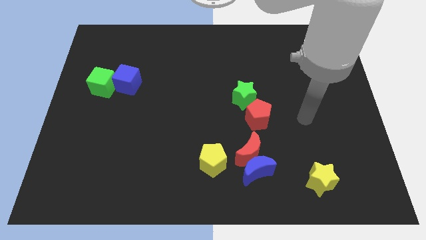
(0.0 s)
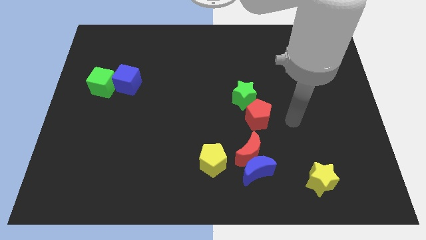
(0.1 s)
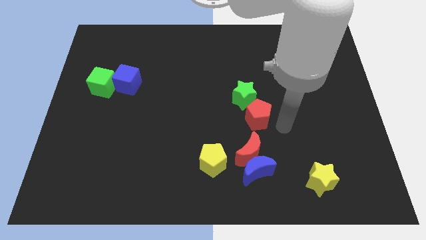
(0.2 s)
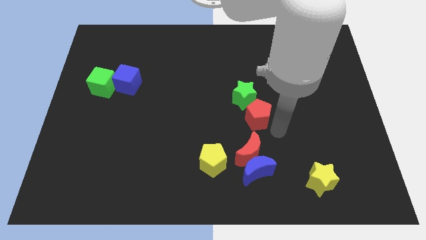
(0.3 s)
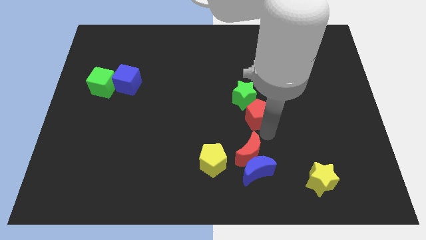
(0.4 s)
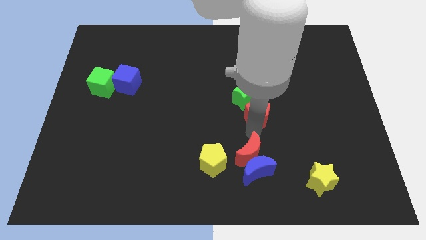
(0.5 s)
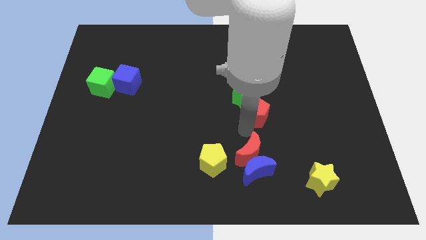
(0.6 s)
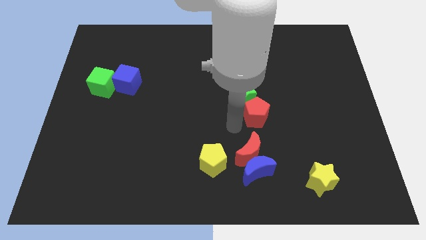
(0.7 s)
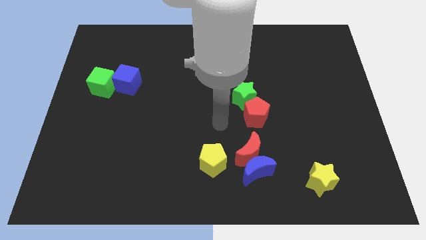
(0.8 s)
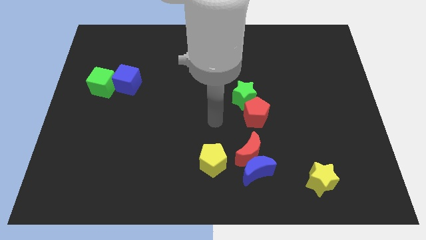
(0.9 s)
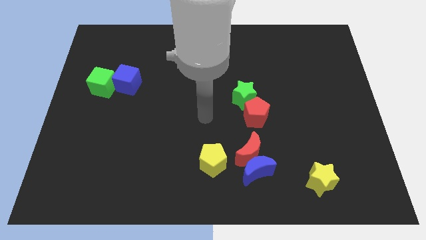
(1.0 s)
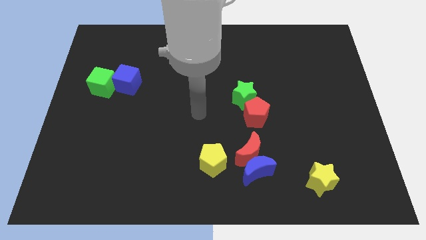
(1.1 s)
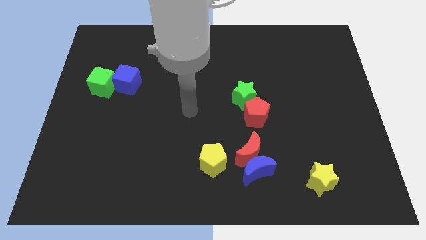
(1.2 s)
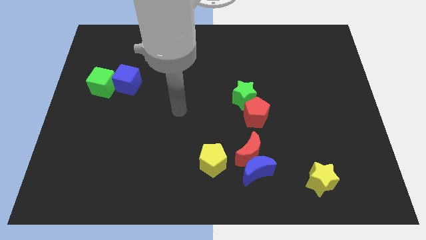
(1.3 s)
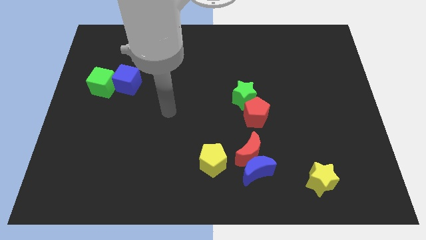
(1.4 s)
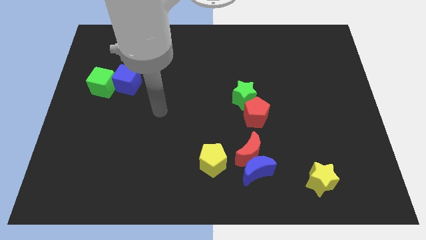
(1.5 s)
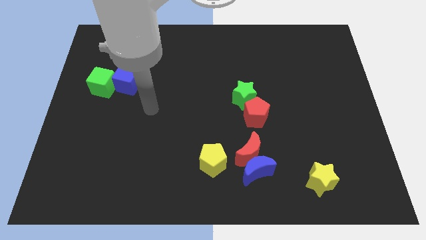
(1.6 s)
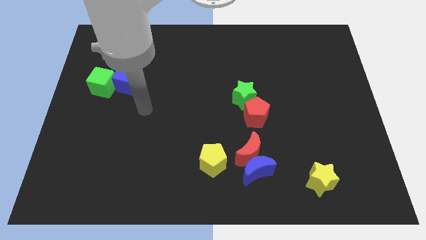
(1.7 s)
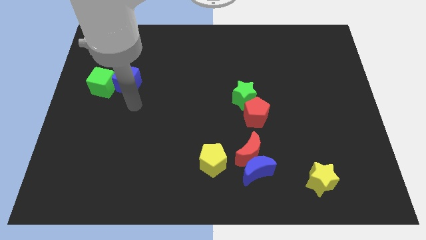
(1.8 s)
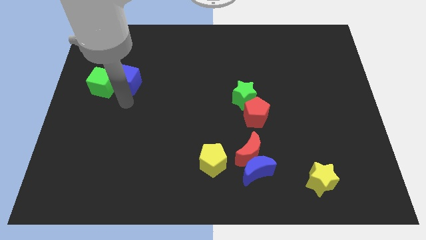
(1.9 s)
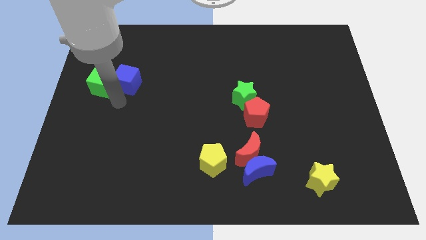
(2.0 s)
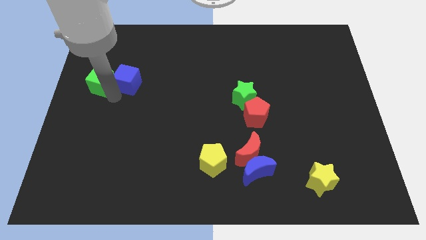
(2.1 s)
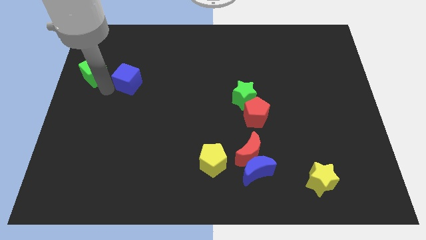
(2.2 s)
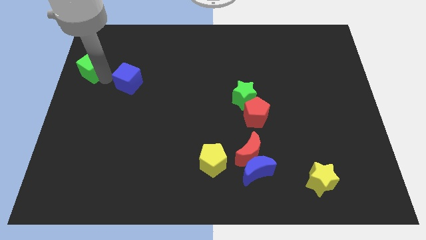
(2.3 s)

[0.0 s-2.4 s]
move the blue cube away from the green cube

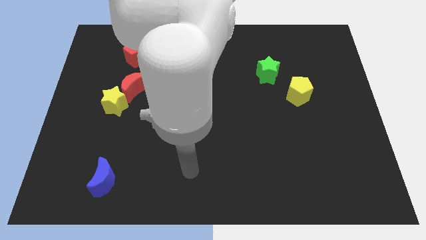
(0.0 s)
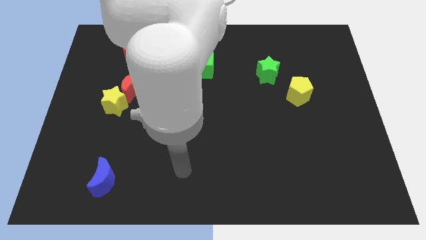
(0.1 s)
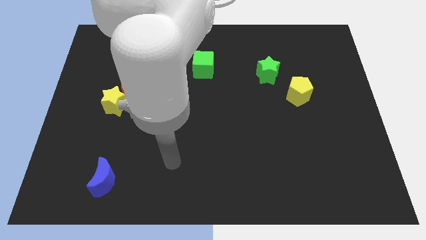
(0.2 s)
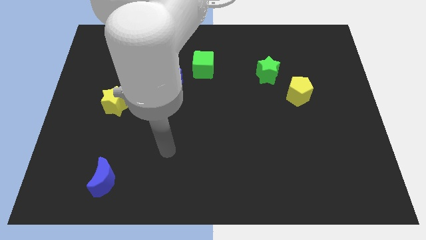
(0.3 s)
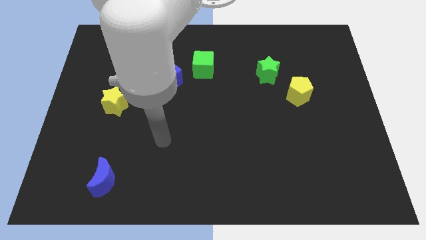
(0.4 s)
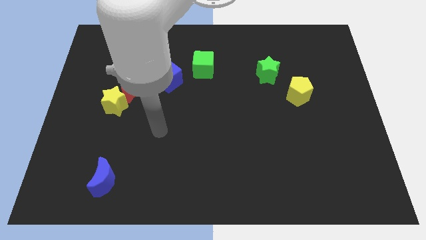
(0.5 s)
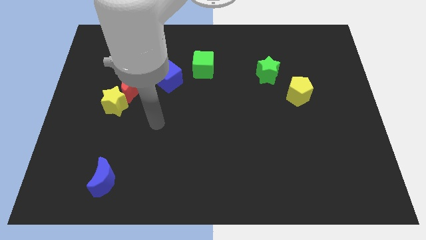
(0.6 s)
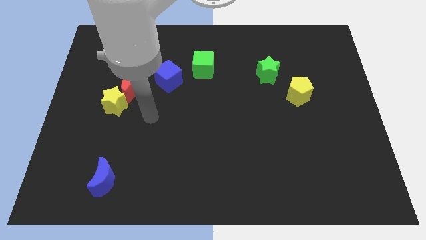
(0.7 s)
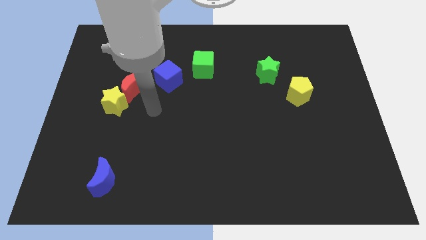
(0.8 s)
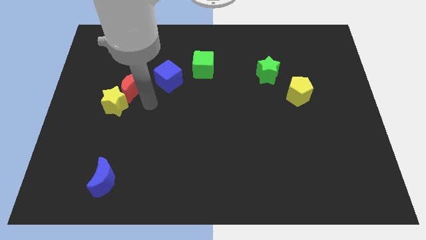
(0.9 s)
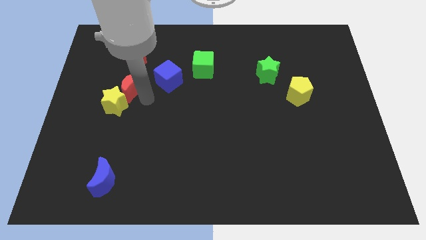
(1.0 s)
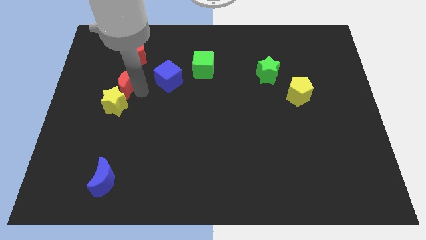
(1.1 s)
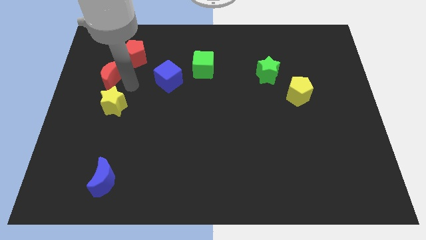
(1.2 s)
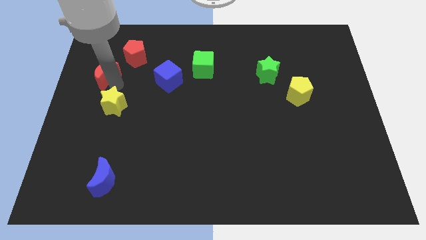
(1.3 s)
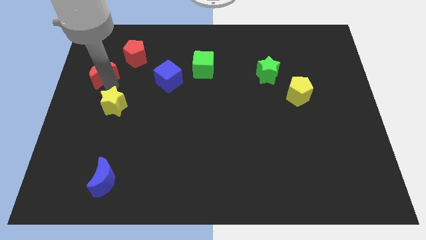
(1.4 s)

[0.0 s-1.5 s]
move the yellow star away from the red moon

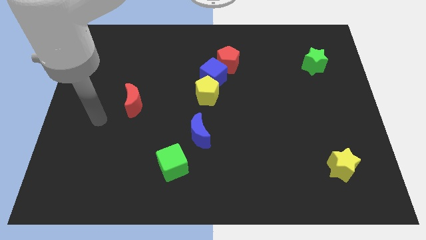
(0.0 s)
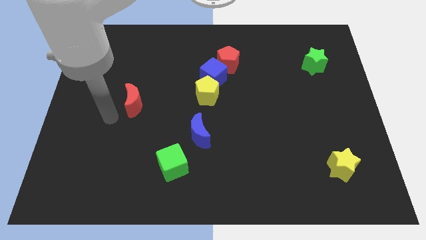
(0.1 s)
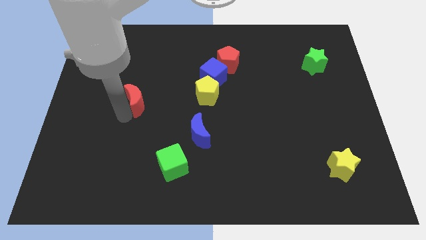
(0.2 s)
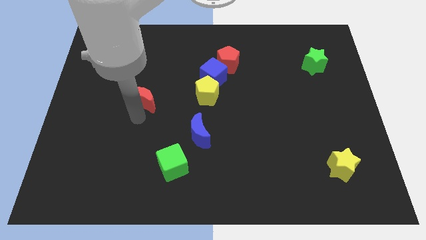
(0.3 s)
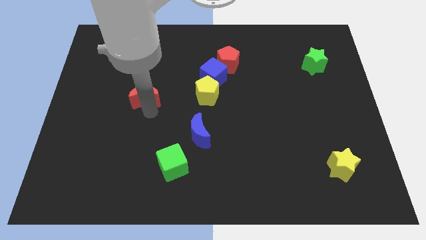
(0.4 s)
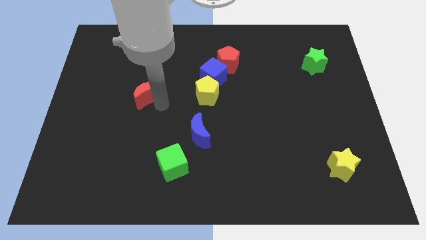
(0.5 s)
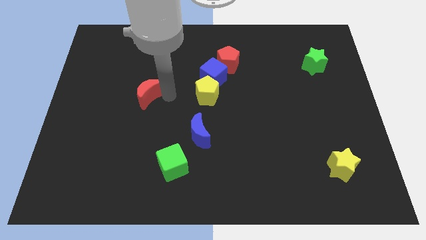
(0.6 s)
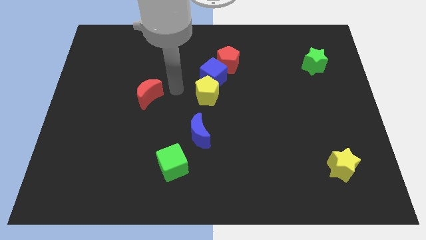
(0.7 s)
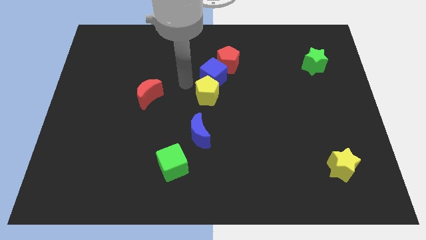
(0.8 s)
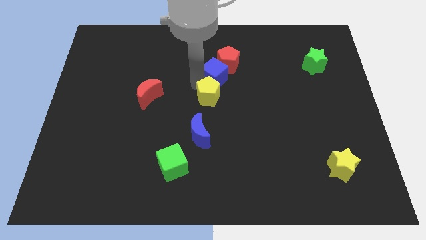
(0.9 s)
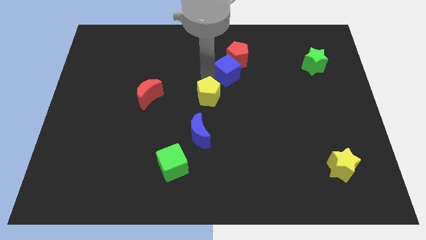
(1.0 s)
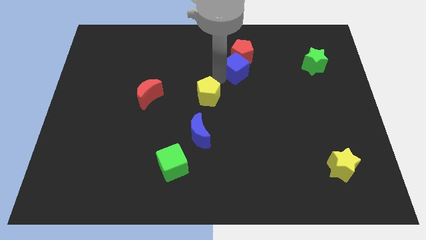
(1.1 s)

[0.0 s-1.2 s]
separate the yellow pentagon from the blue cube

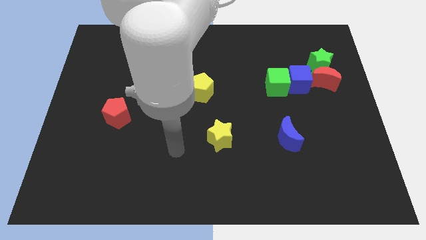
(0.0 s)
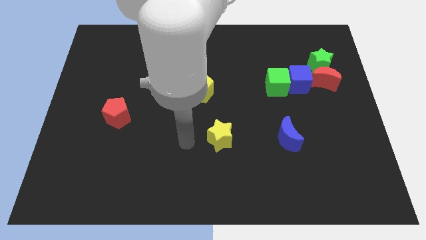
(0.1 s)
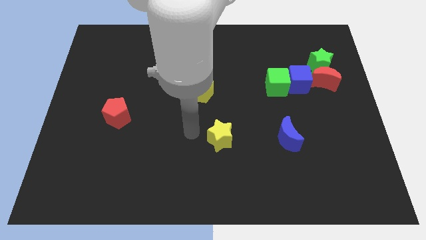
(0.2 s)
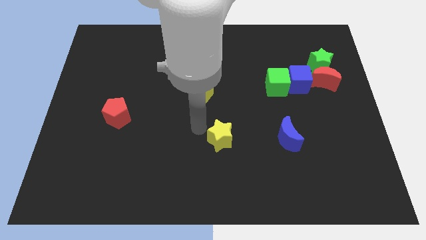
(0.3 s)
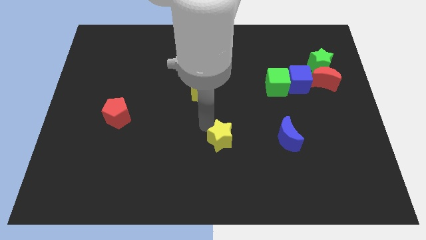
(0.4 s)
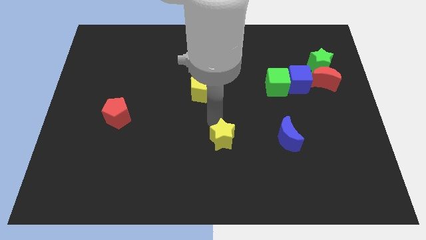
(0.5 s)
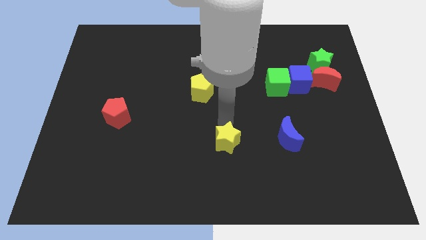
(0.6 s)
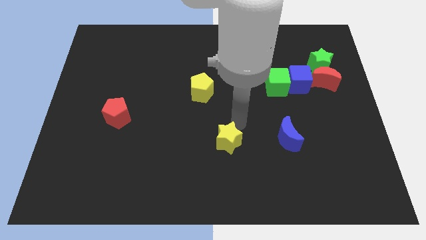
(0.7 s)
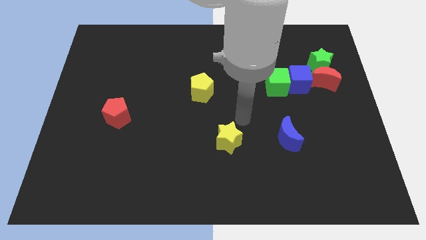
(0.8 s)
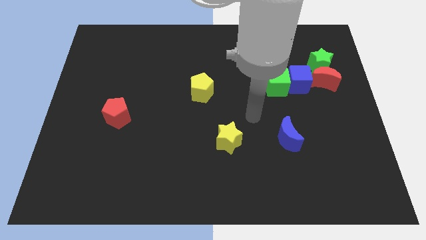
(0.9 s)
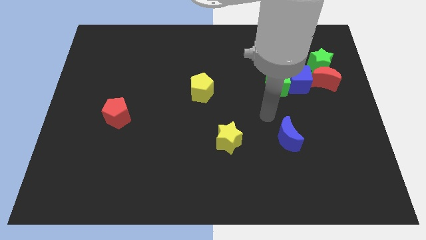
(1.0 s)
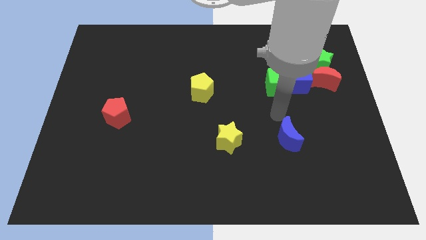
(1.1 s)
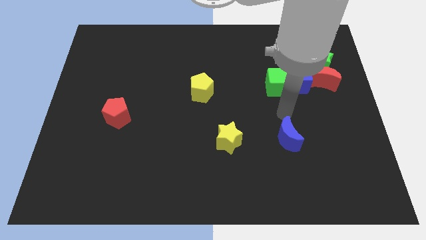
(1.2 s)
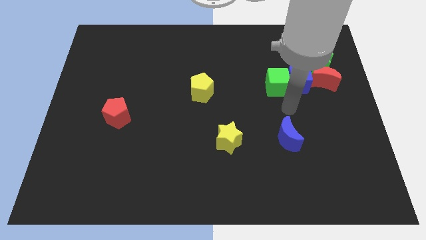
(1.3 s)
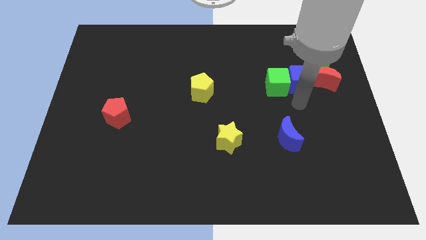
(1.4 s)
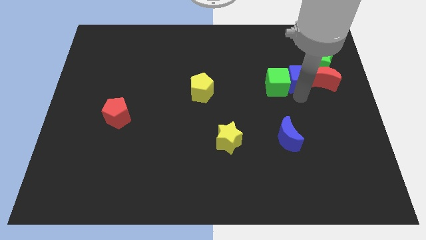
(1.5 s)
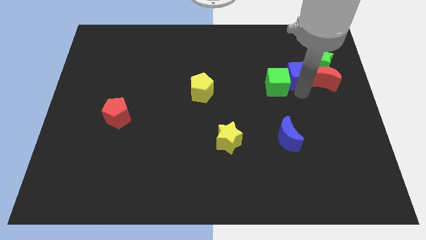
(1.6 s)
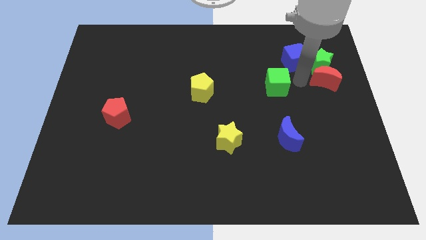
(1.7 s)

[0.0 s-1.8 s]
move the green cube away from the blue cube

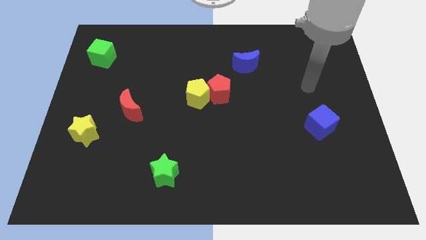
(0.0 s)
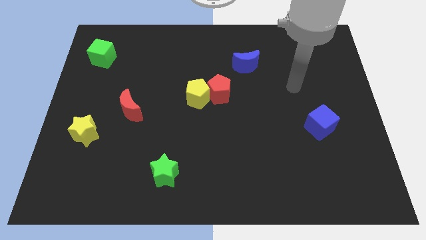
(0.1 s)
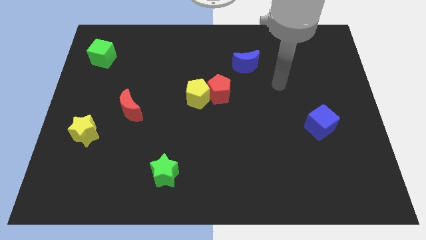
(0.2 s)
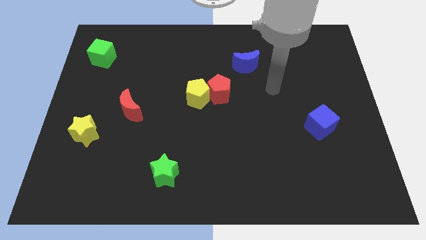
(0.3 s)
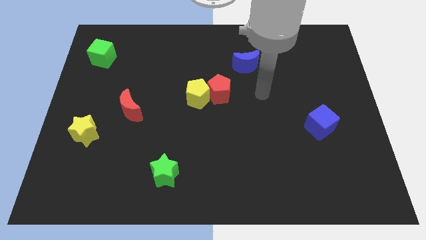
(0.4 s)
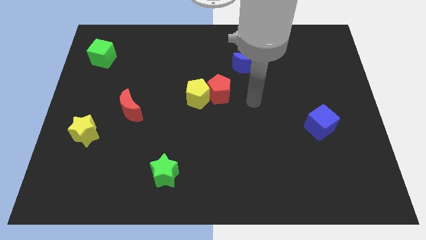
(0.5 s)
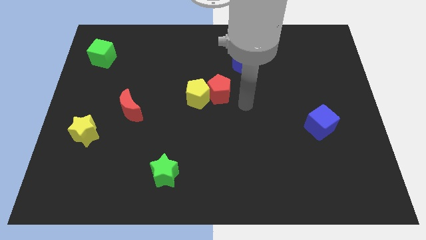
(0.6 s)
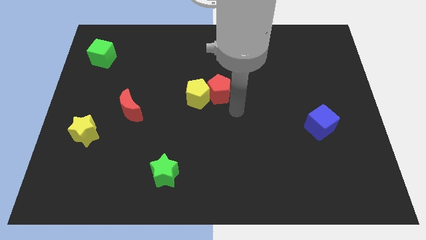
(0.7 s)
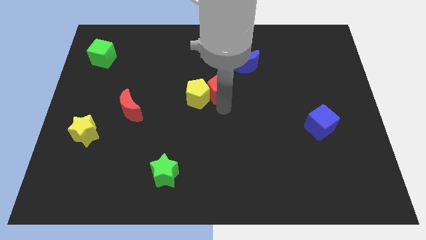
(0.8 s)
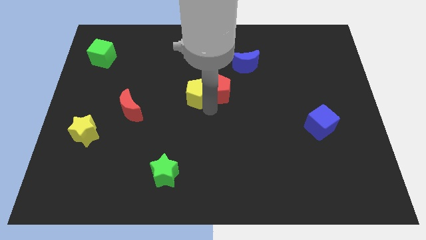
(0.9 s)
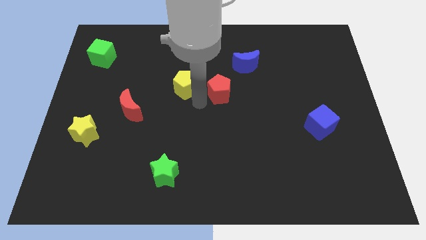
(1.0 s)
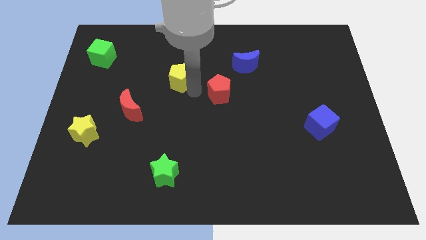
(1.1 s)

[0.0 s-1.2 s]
separate the red pentagon from the yellow pentagon

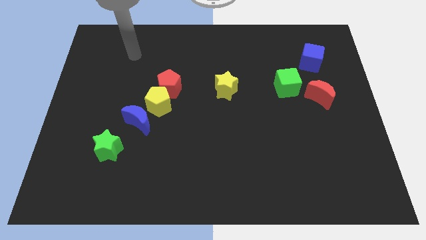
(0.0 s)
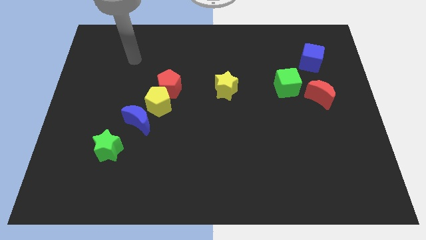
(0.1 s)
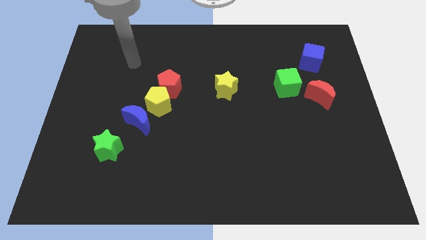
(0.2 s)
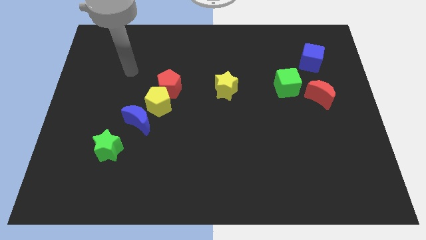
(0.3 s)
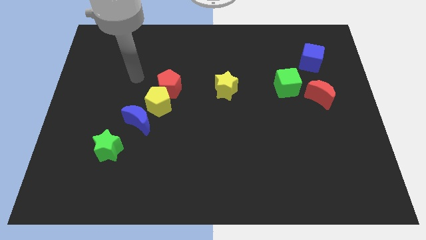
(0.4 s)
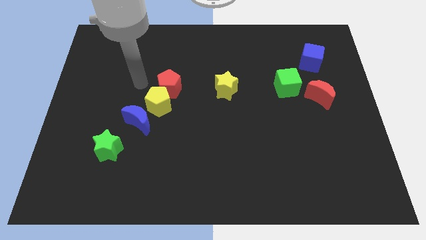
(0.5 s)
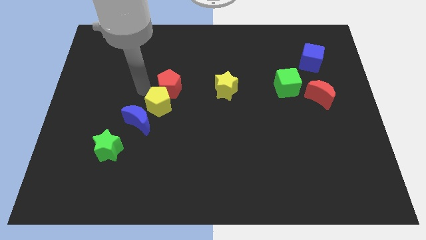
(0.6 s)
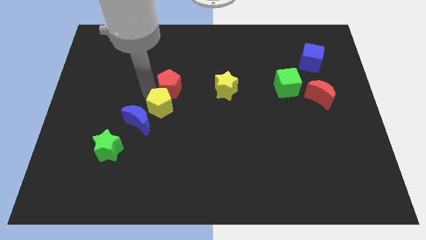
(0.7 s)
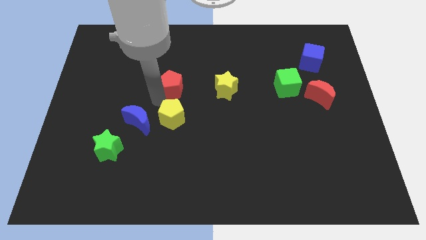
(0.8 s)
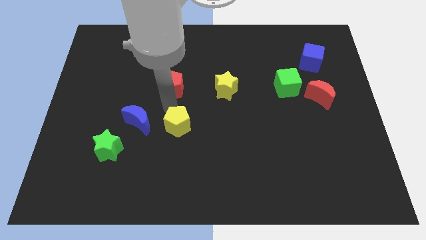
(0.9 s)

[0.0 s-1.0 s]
pull the red pentagon apart from the yellow pentagon

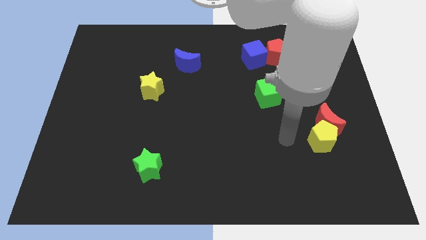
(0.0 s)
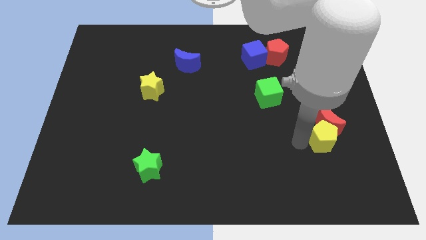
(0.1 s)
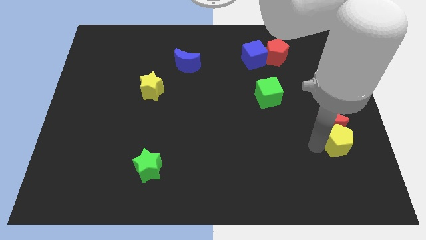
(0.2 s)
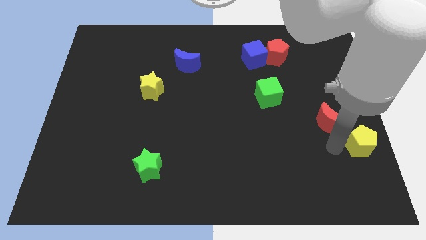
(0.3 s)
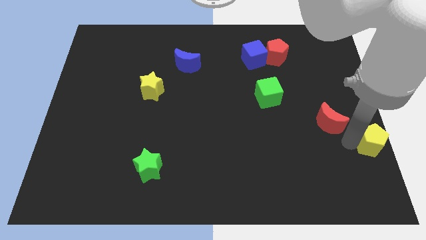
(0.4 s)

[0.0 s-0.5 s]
pull the red moon apart from the yellow pentagon
